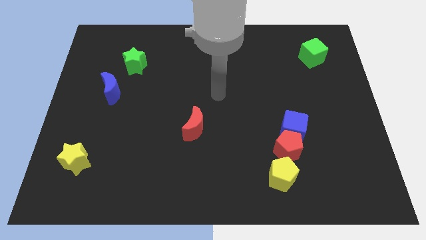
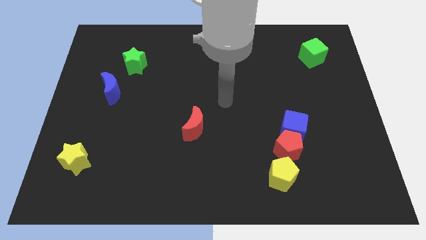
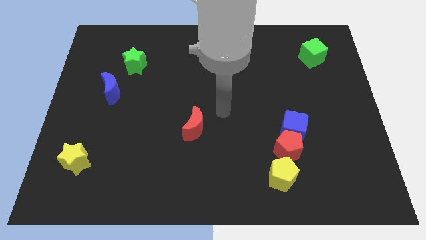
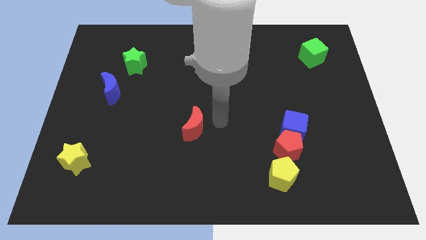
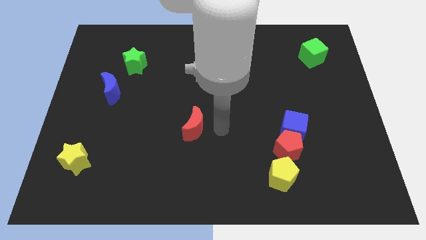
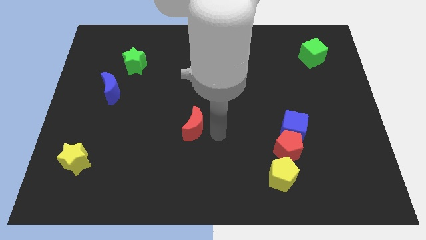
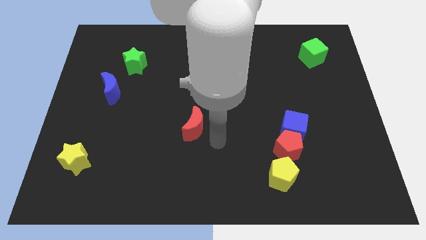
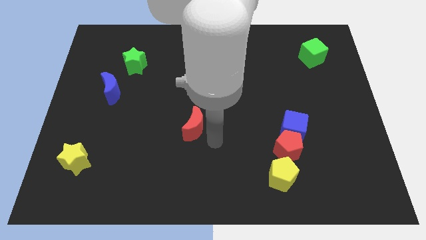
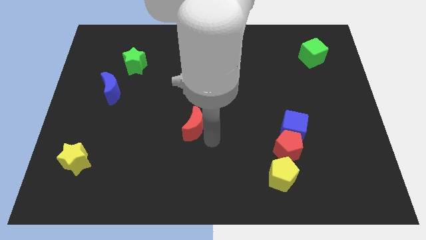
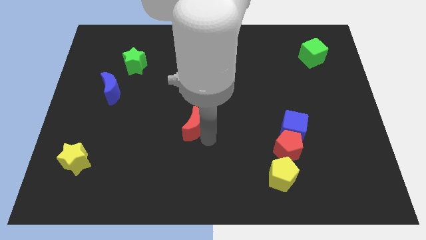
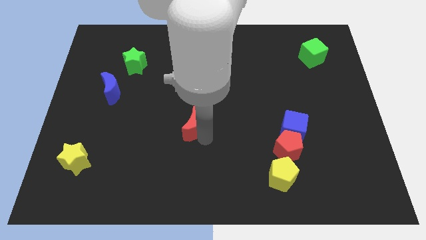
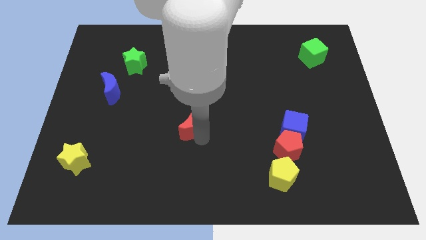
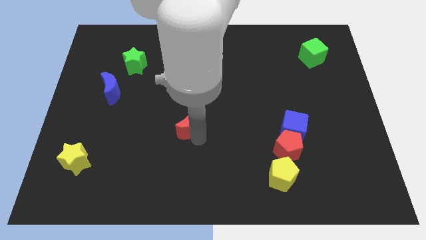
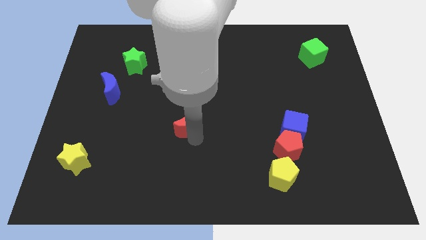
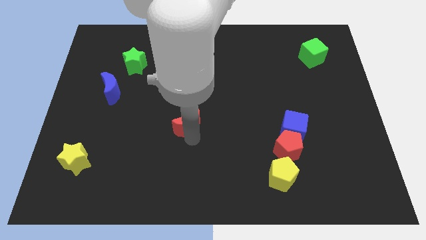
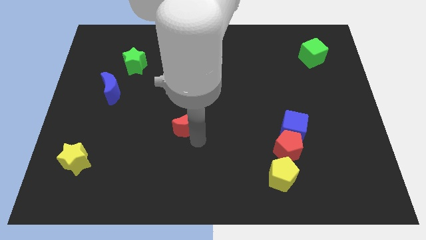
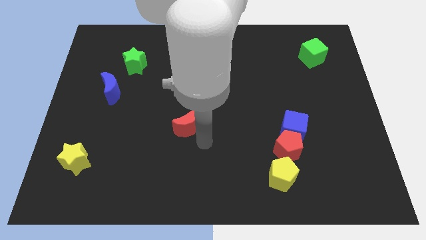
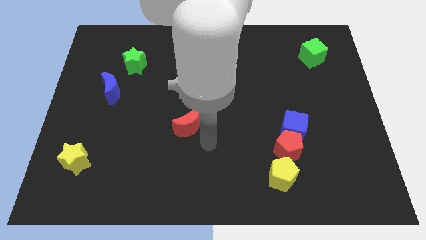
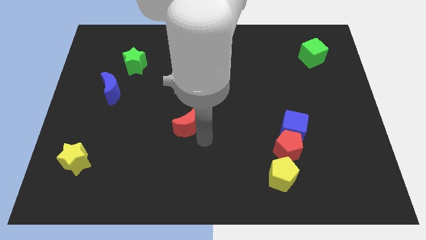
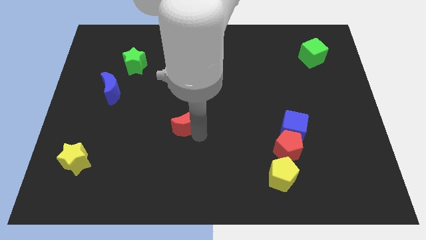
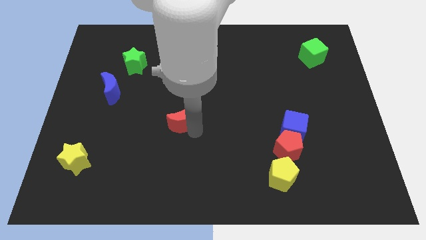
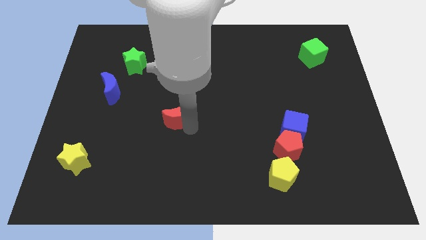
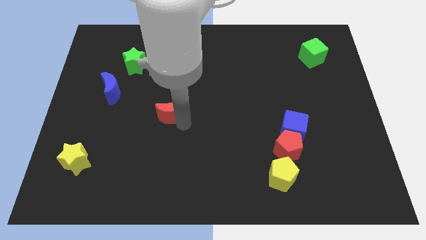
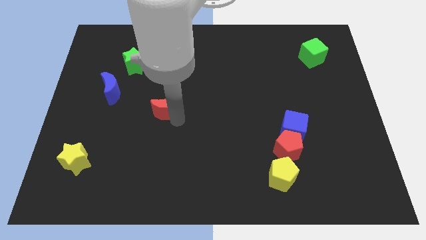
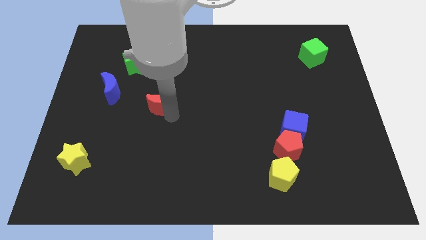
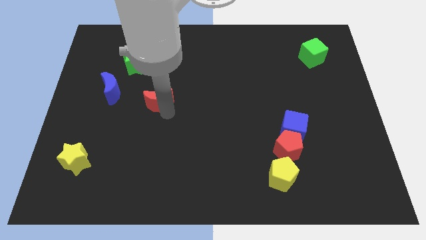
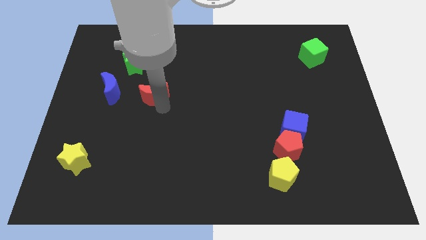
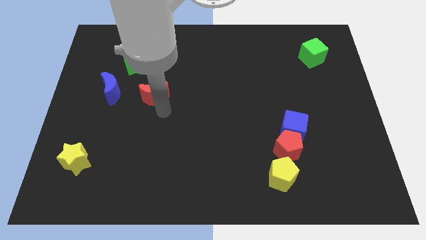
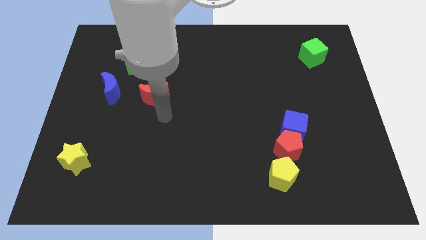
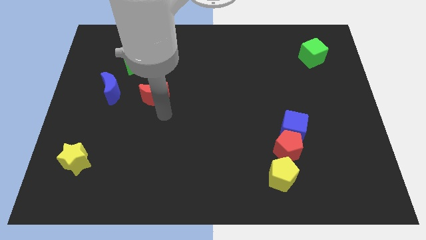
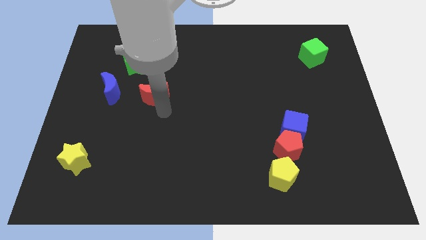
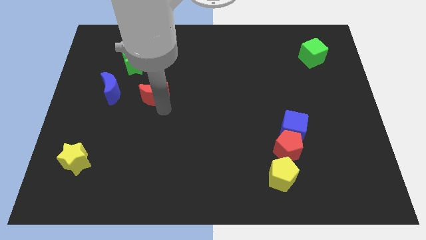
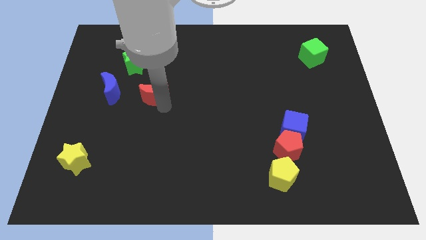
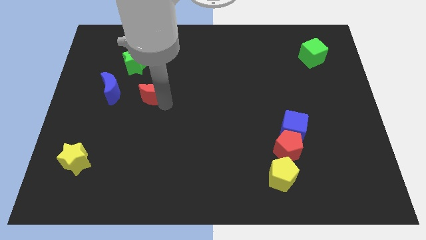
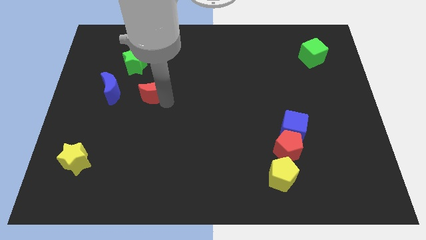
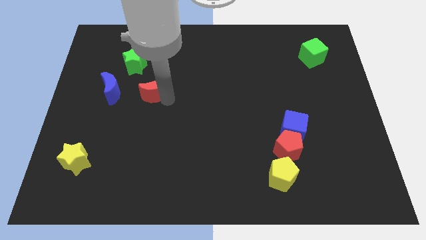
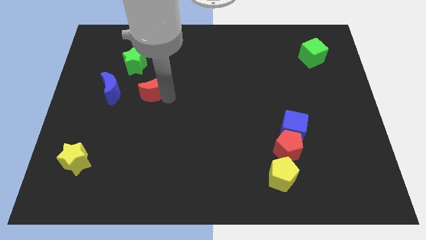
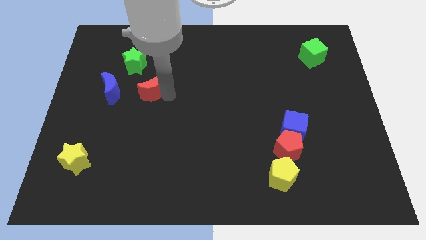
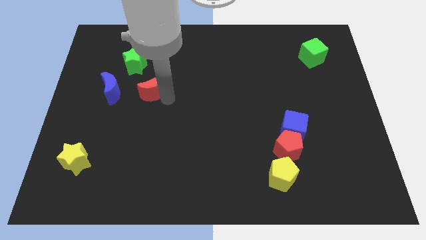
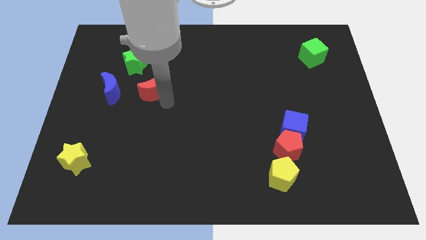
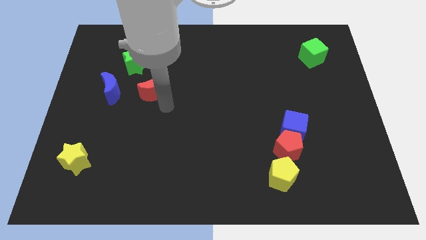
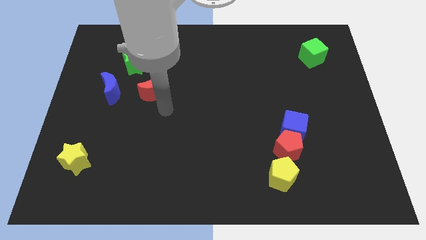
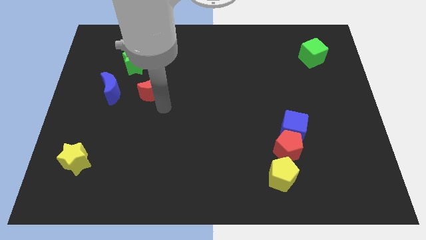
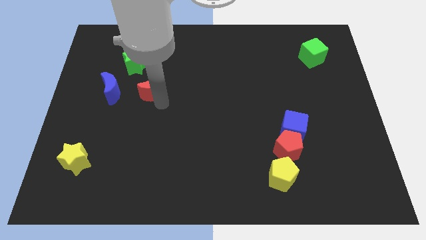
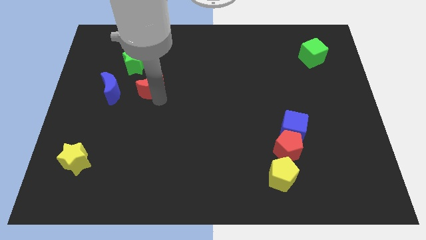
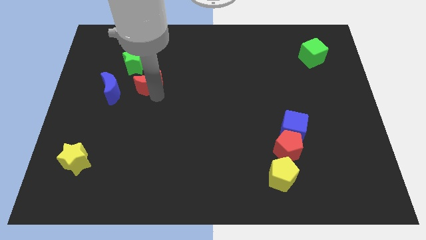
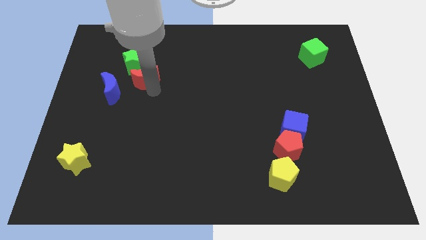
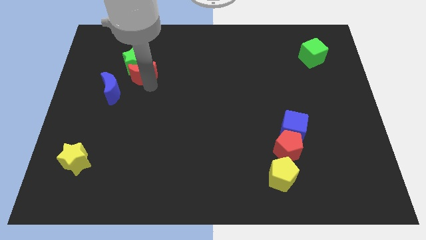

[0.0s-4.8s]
push the red moon to the green star

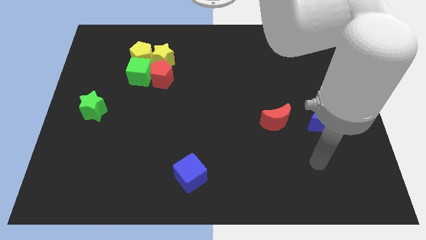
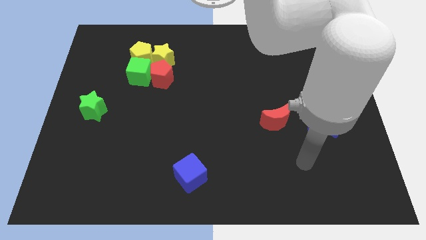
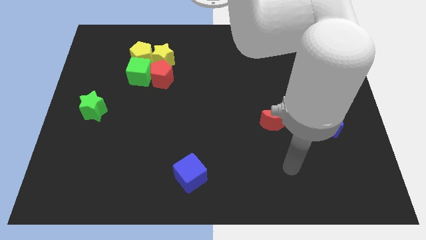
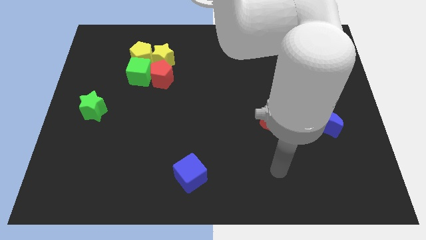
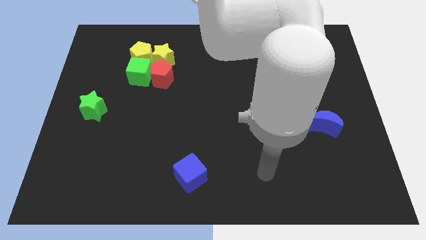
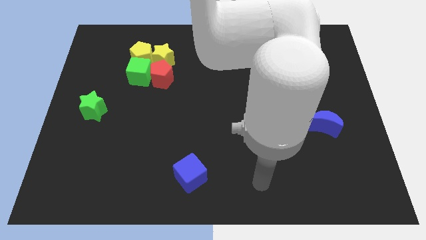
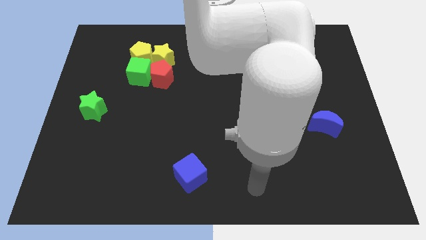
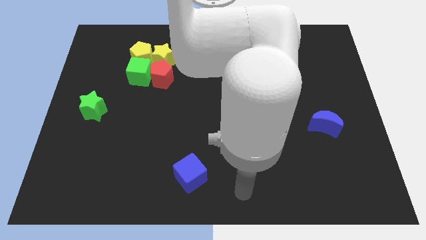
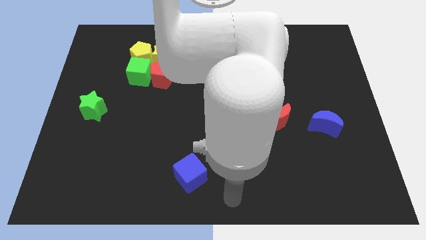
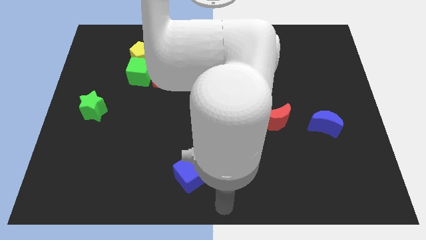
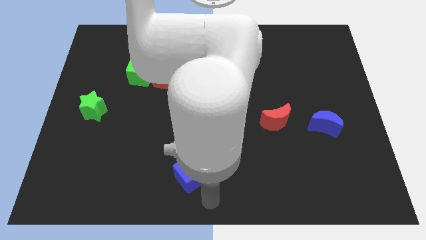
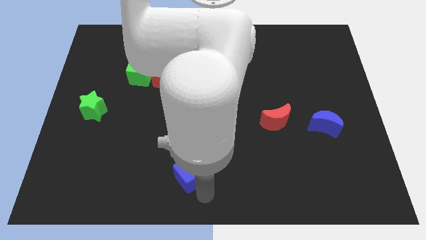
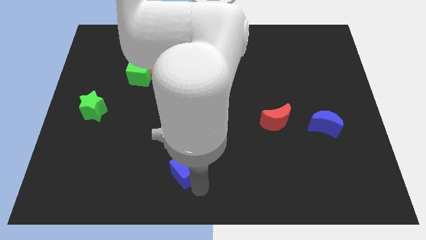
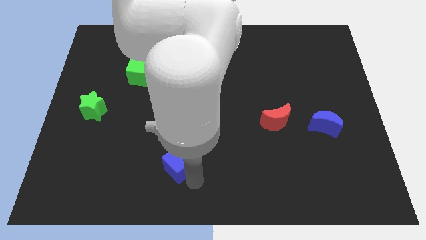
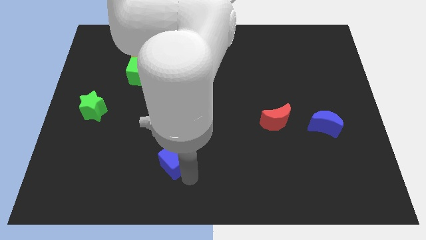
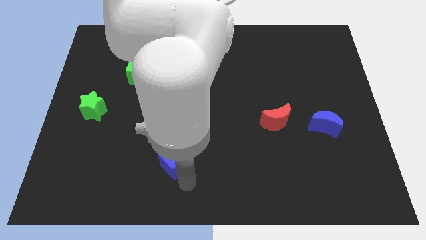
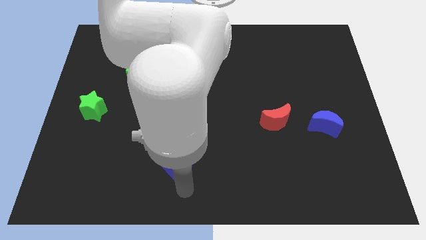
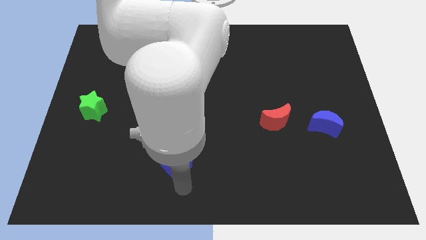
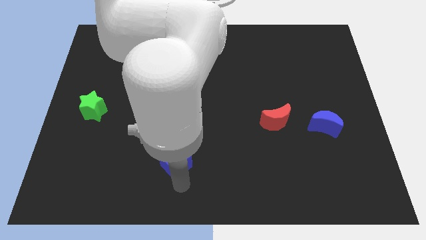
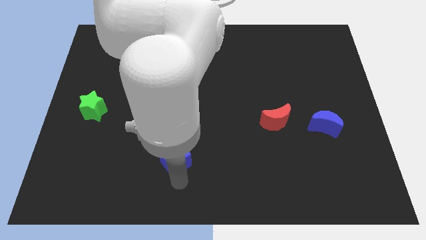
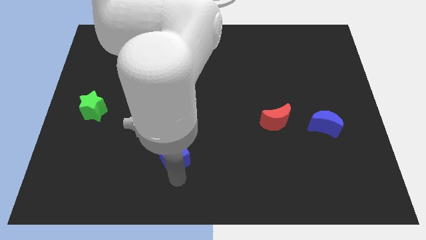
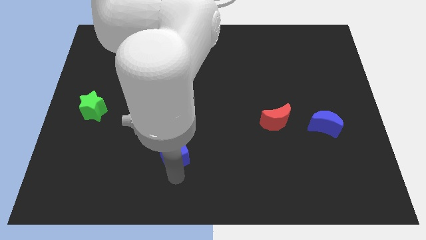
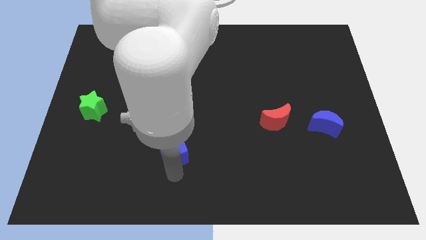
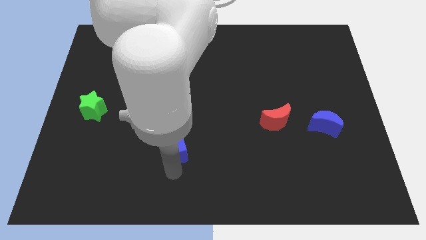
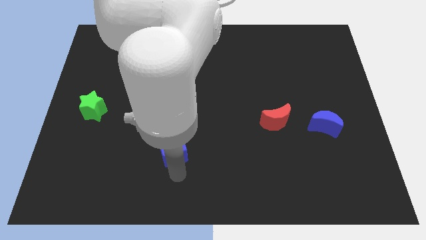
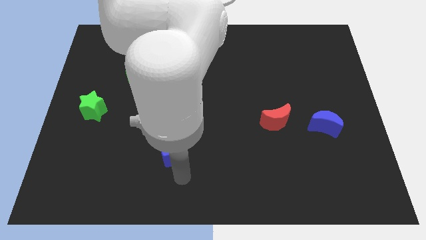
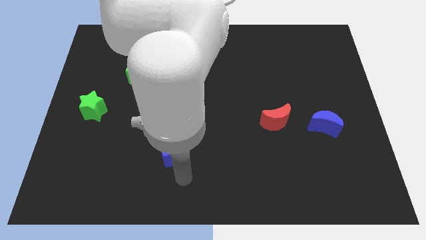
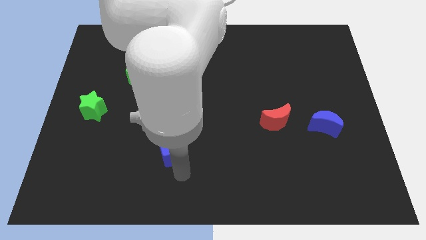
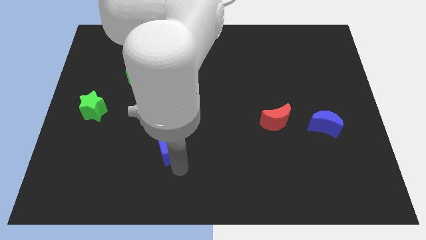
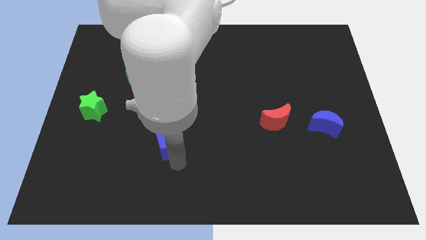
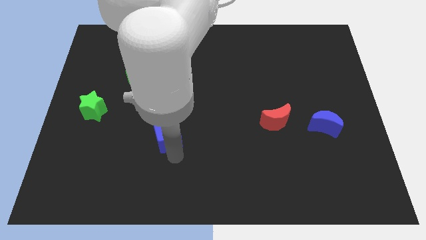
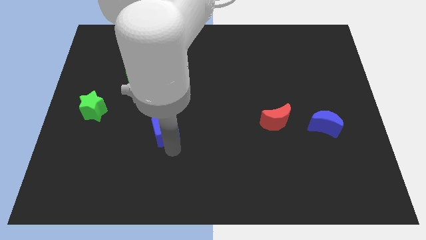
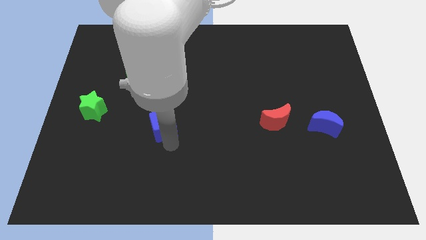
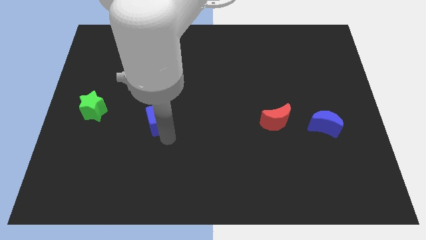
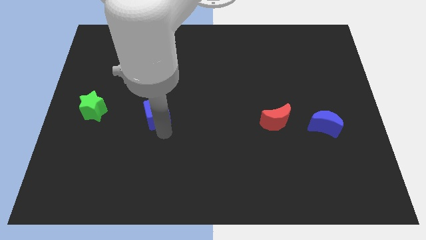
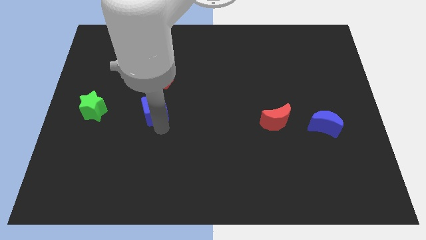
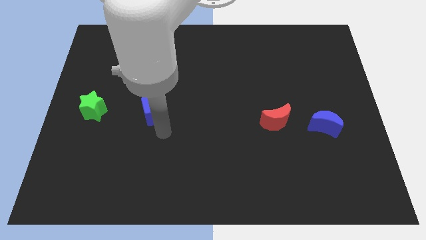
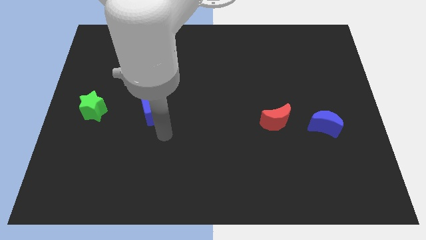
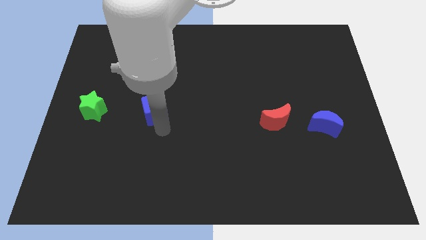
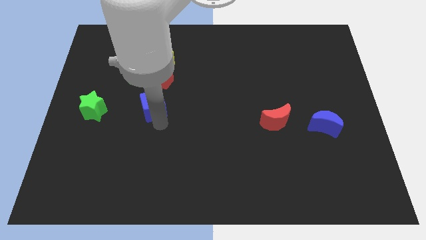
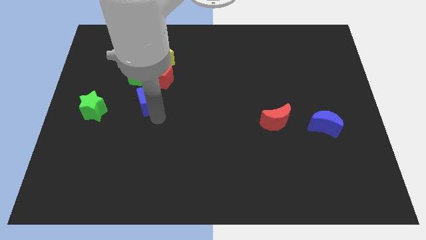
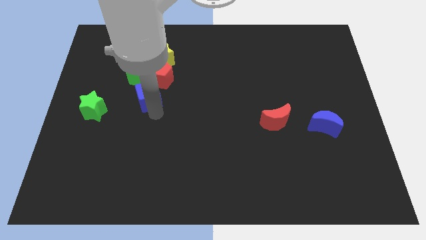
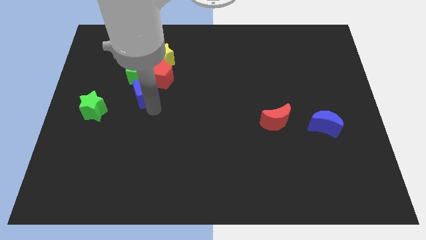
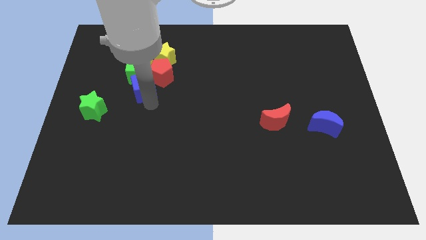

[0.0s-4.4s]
move the blue cube to the green cube
